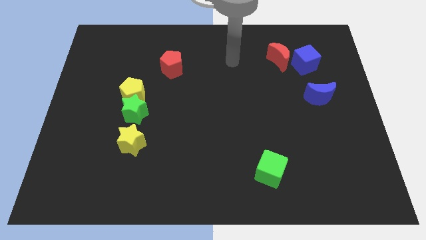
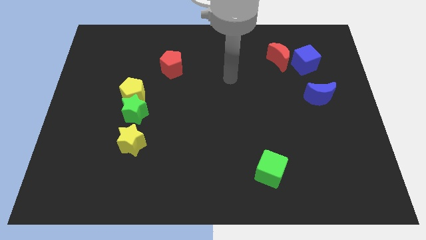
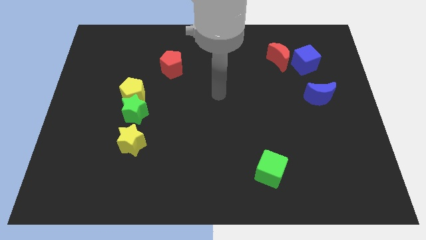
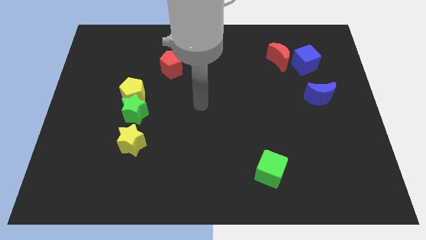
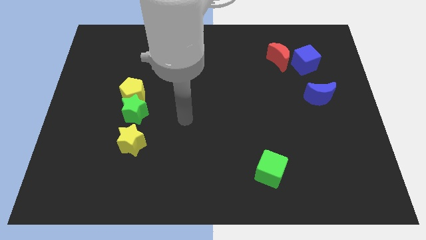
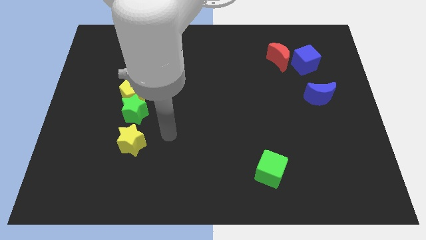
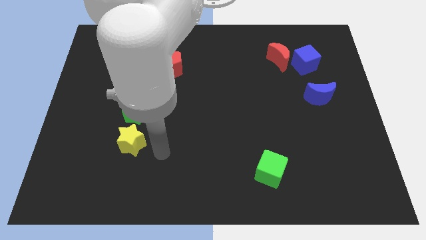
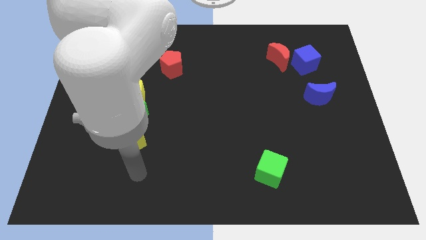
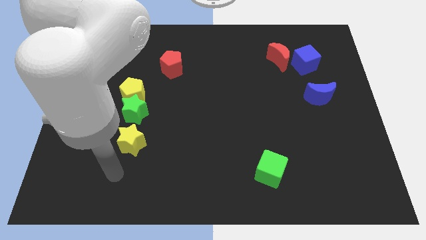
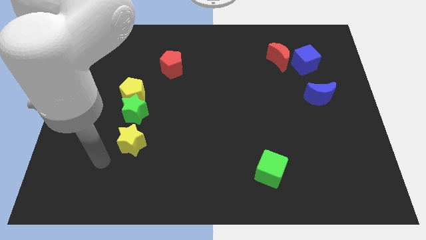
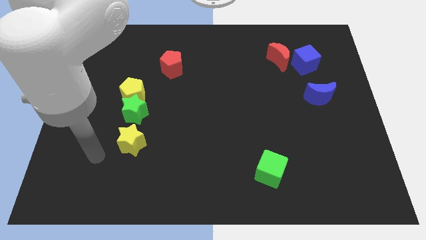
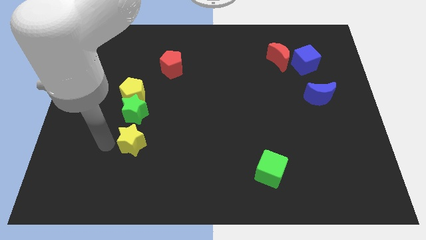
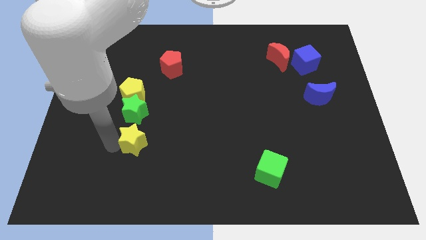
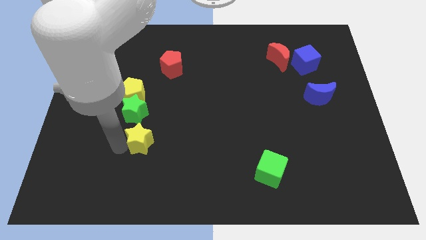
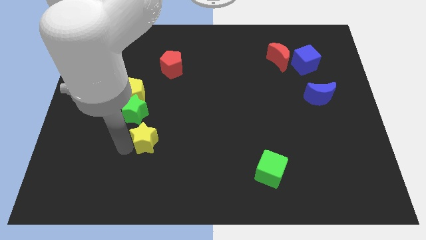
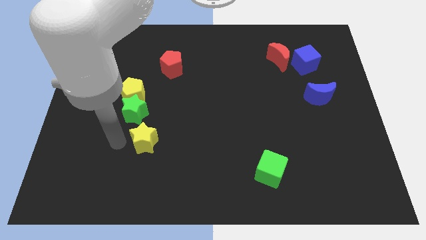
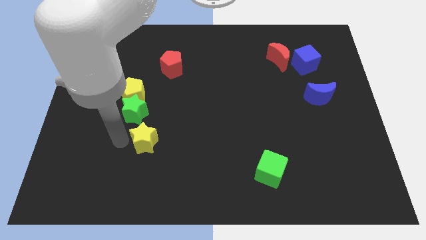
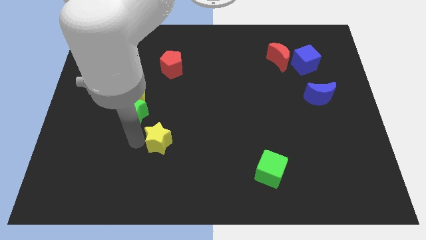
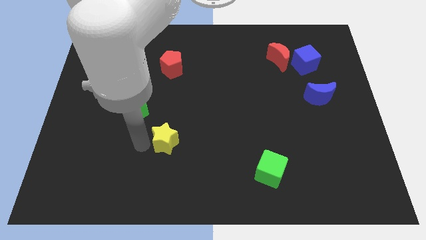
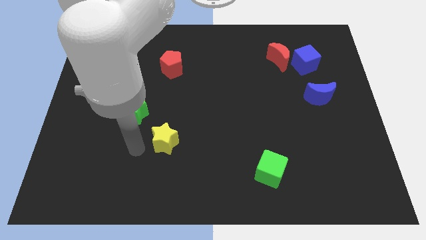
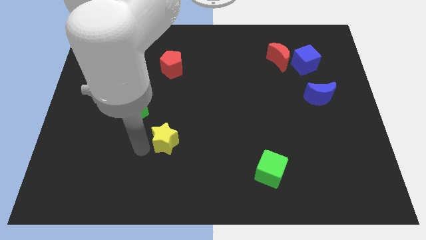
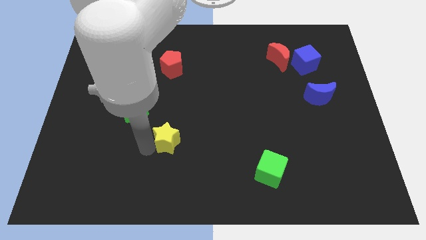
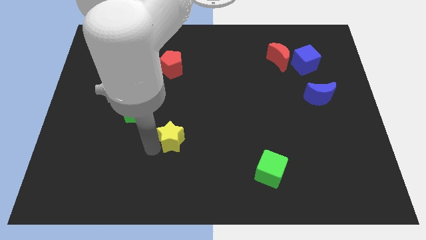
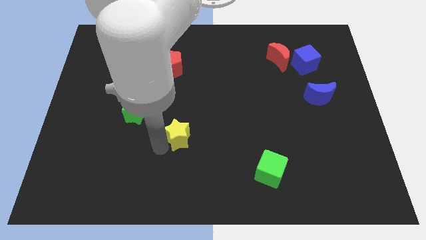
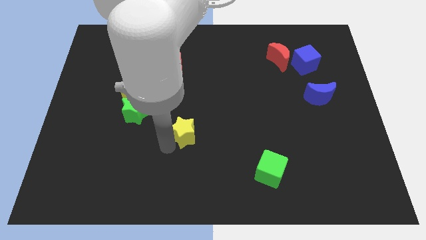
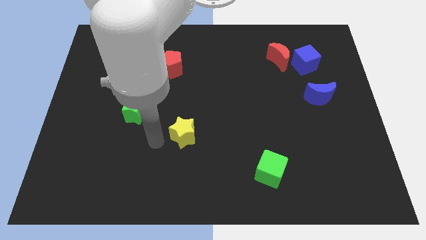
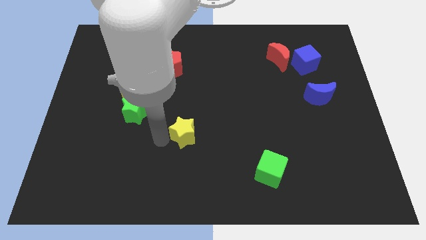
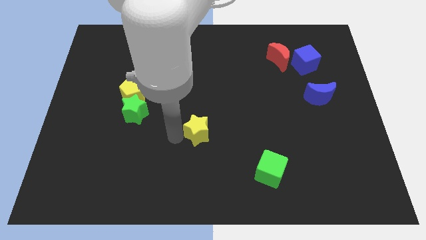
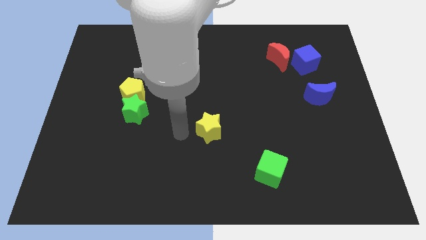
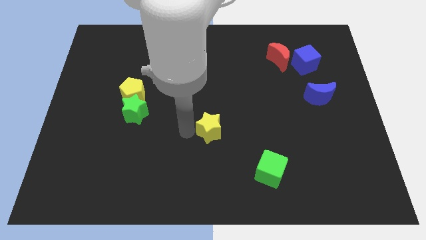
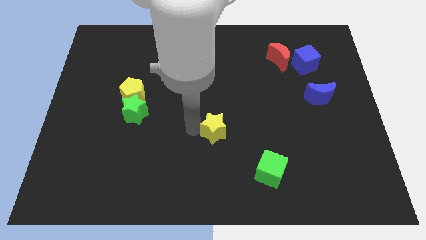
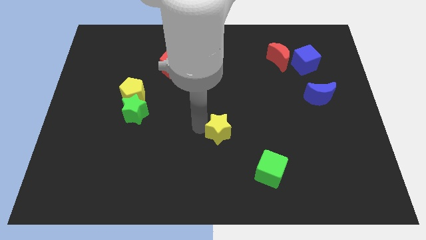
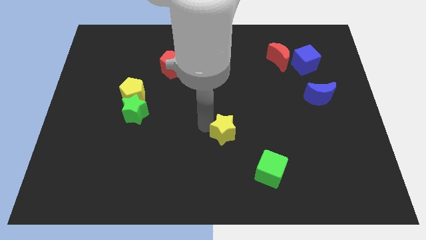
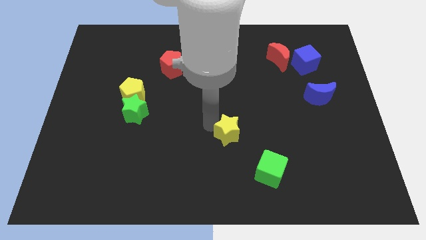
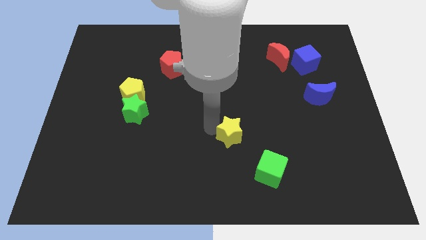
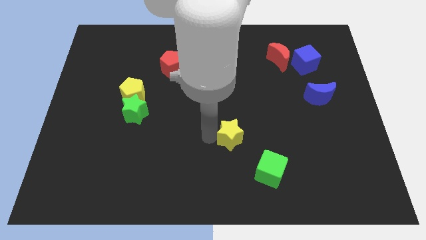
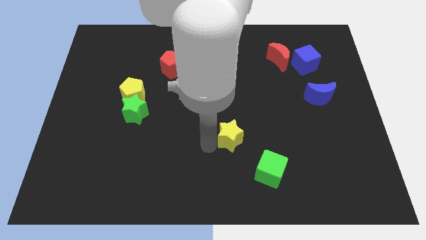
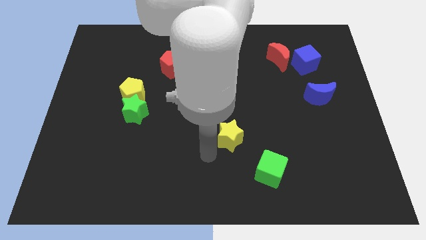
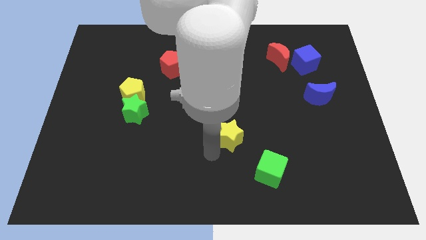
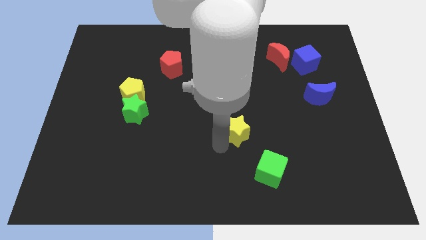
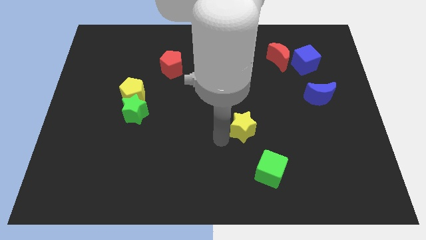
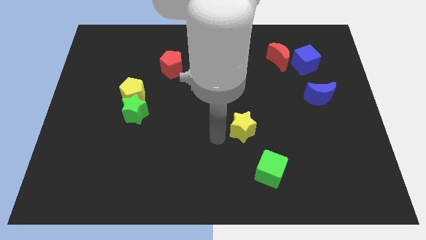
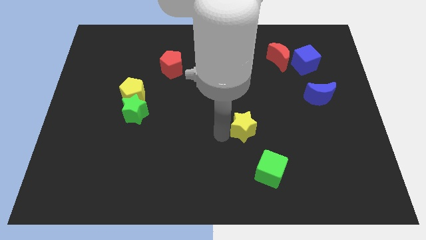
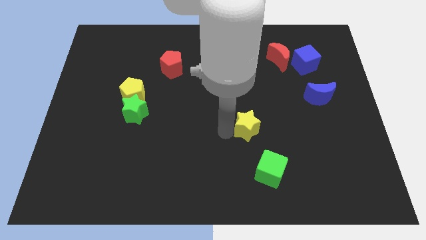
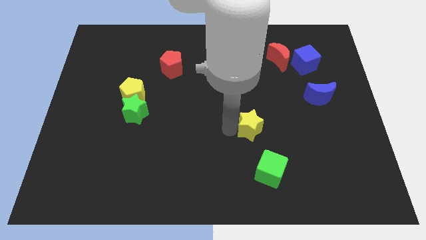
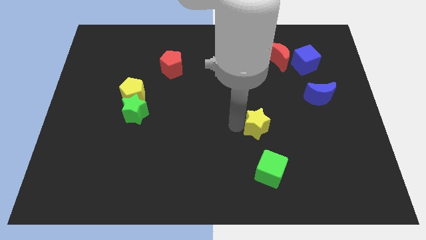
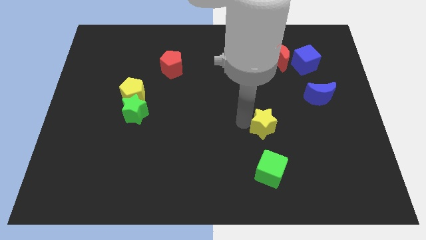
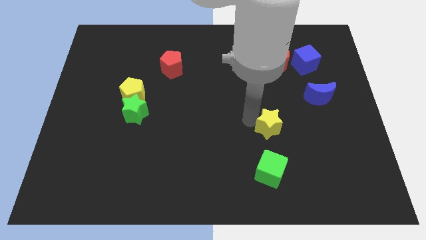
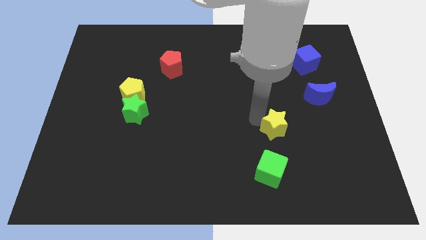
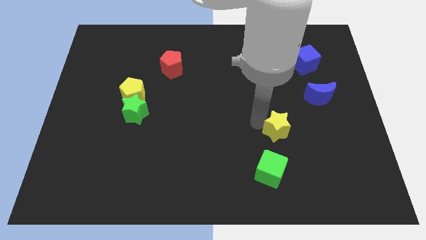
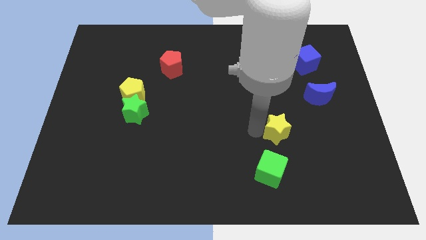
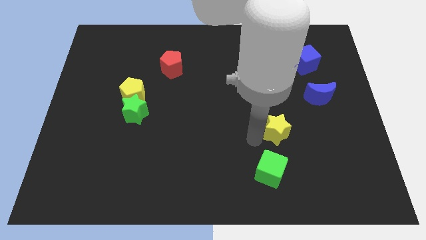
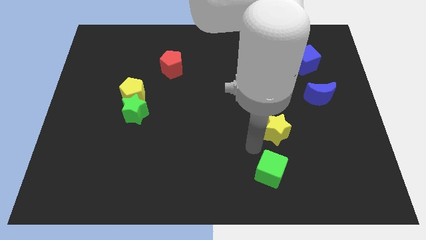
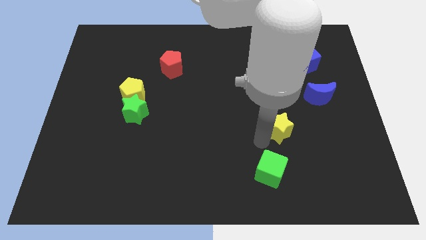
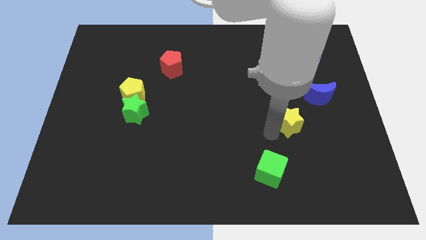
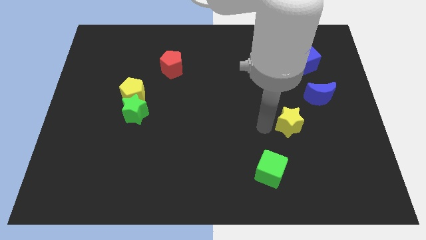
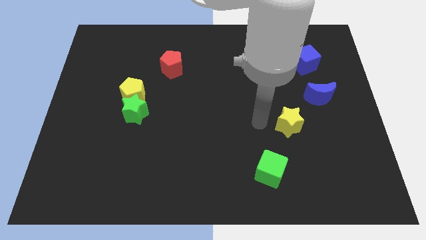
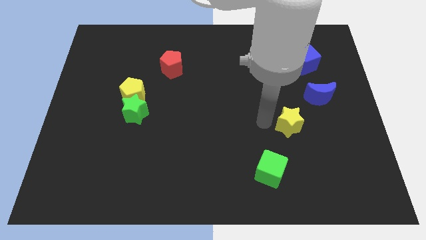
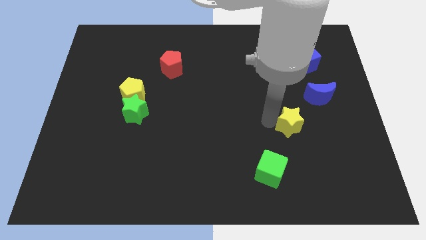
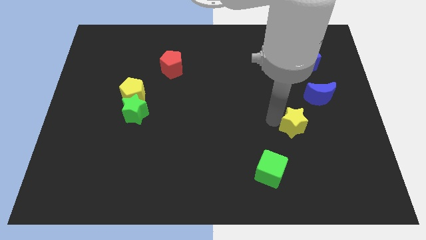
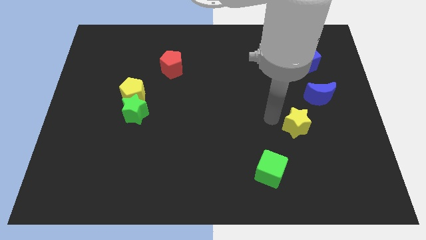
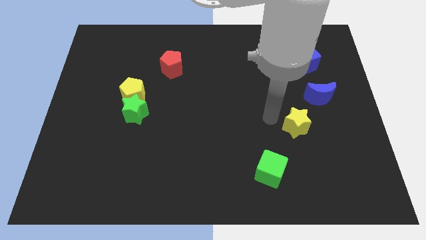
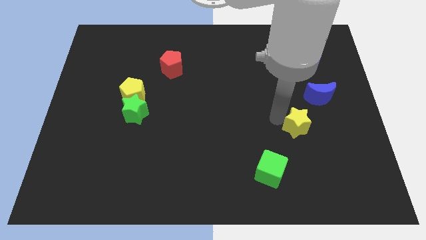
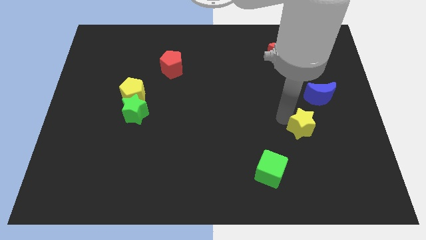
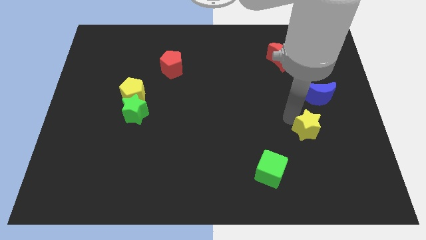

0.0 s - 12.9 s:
push the yellow star to the bottom side of the blue moon
